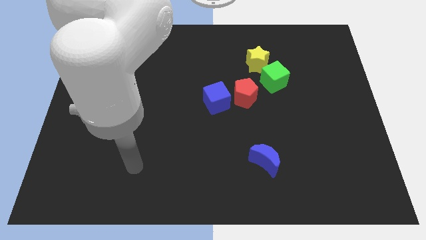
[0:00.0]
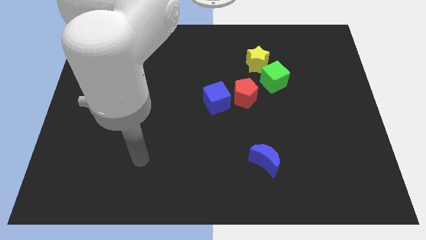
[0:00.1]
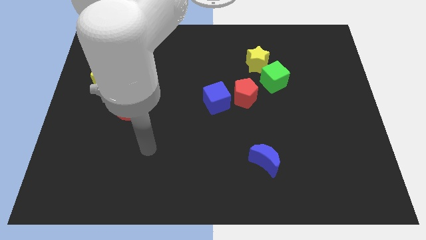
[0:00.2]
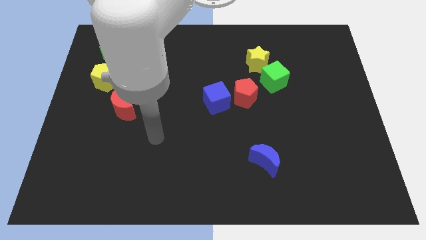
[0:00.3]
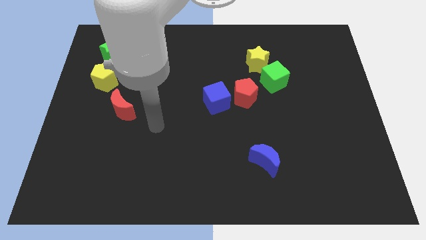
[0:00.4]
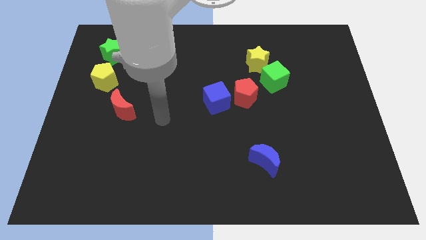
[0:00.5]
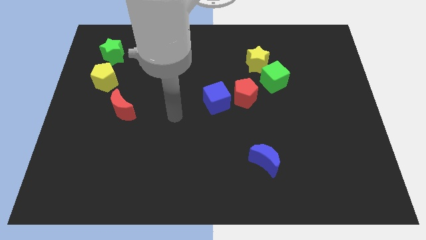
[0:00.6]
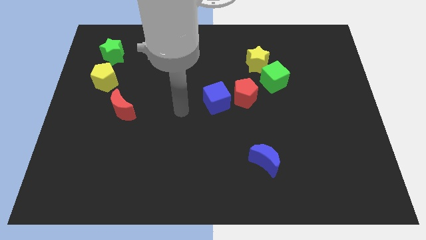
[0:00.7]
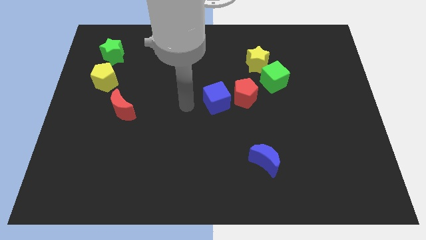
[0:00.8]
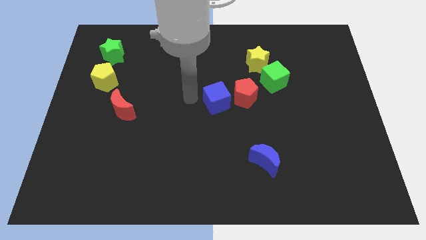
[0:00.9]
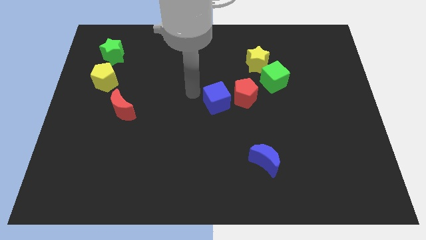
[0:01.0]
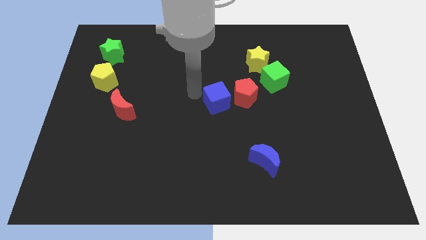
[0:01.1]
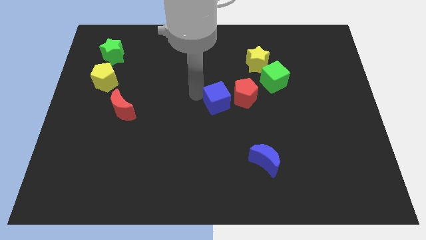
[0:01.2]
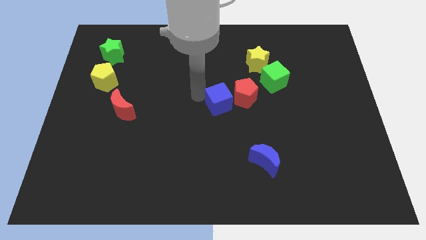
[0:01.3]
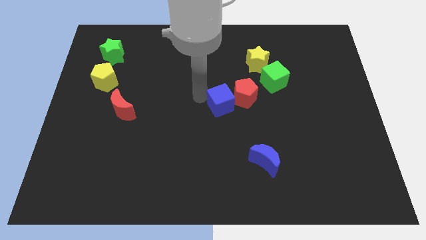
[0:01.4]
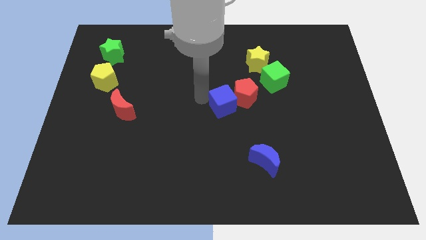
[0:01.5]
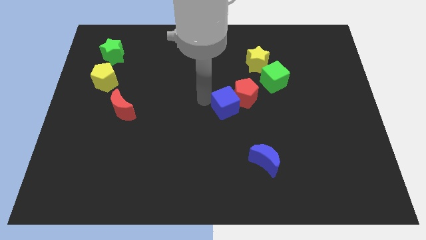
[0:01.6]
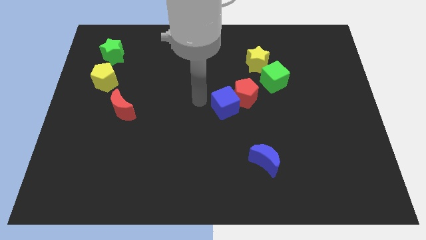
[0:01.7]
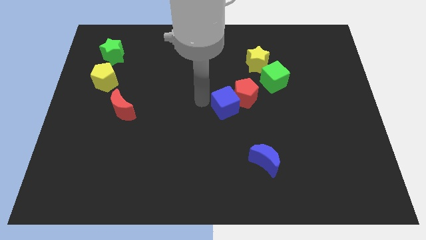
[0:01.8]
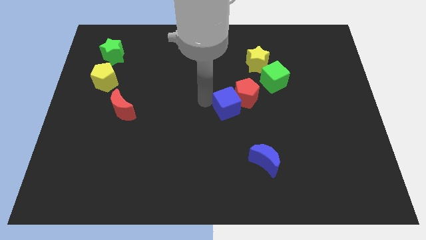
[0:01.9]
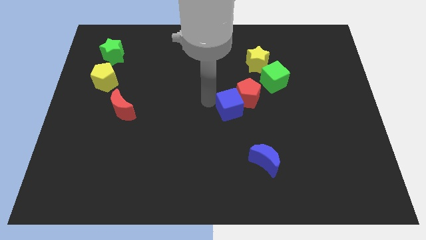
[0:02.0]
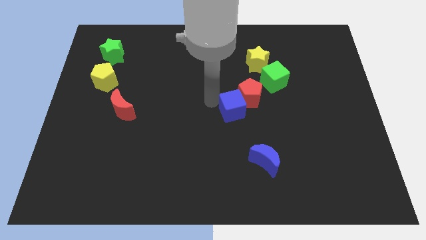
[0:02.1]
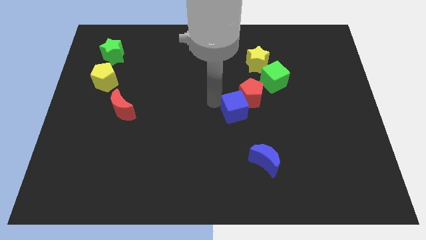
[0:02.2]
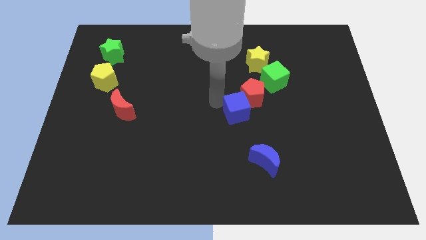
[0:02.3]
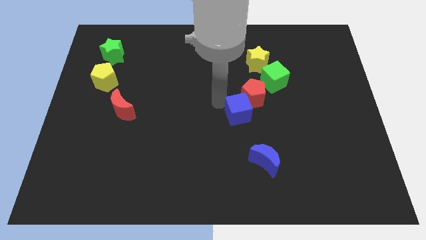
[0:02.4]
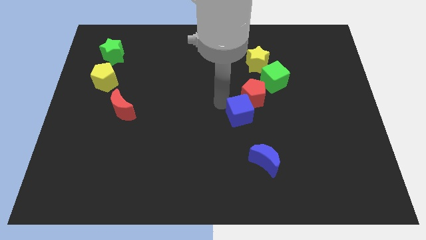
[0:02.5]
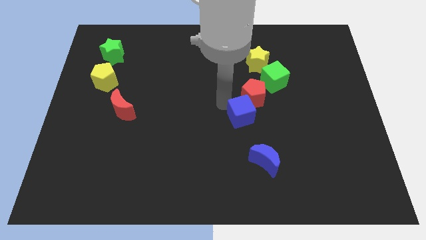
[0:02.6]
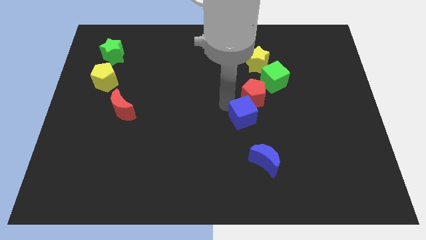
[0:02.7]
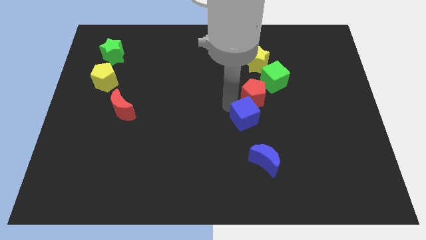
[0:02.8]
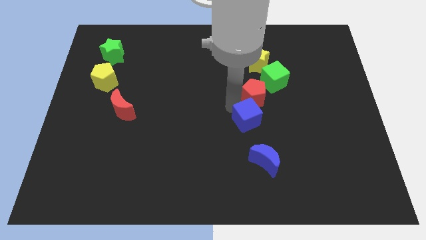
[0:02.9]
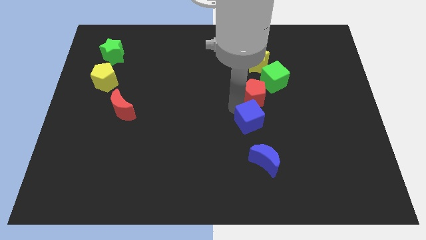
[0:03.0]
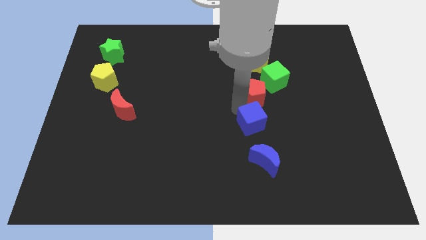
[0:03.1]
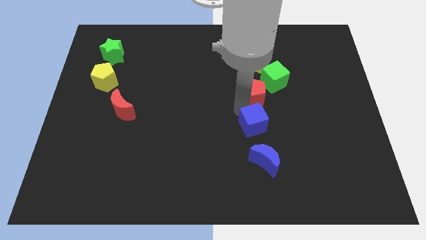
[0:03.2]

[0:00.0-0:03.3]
push the blue cube a bit to the right

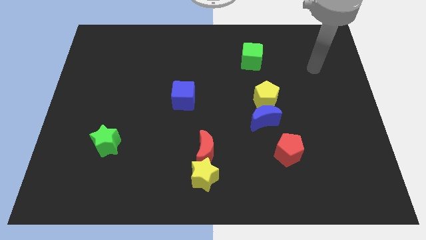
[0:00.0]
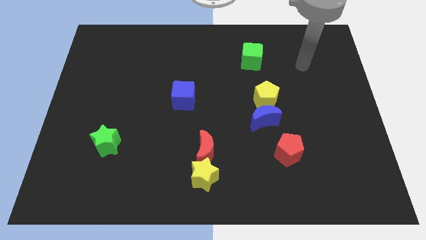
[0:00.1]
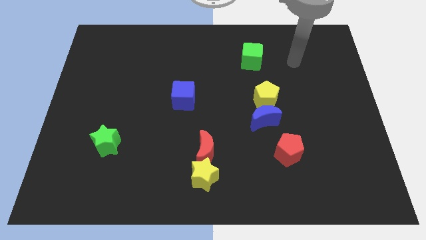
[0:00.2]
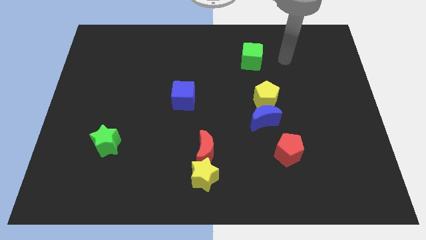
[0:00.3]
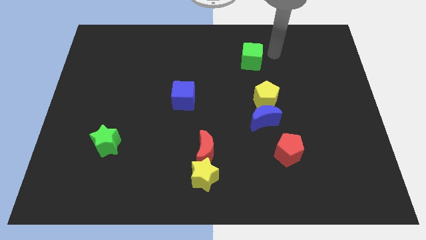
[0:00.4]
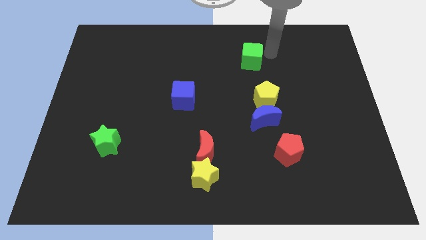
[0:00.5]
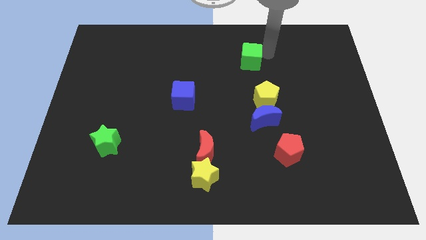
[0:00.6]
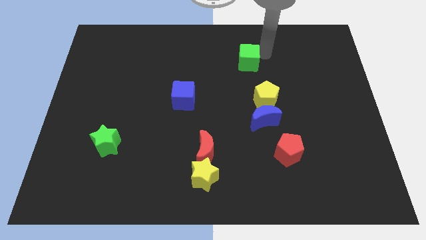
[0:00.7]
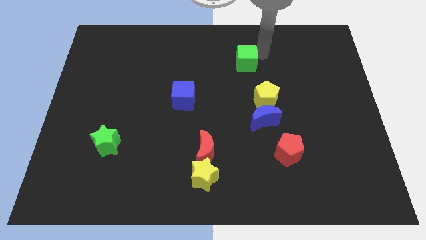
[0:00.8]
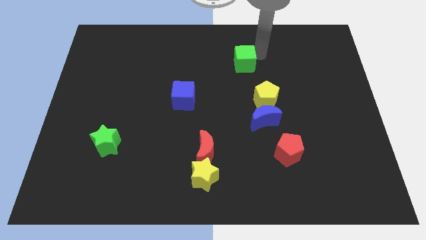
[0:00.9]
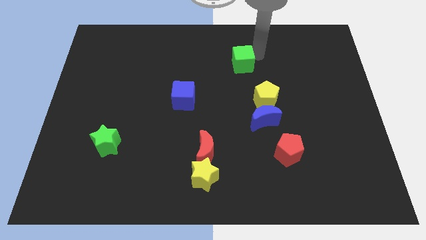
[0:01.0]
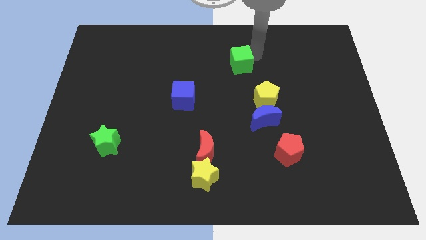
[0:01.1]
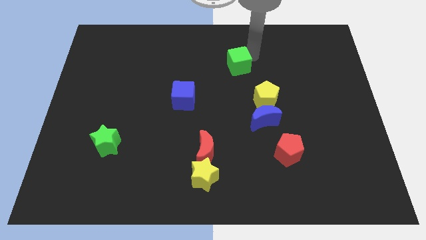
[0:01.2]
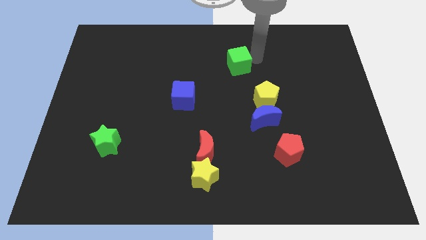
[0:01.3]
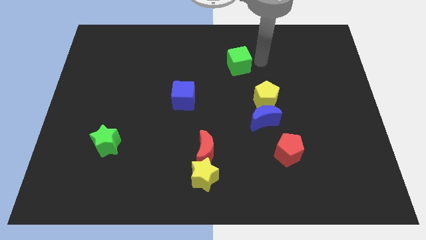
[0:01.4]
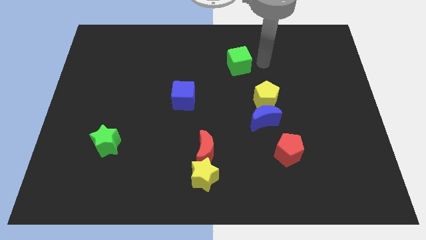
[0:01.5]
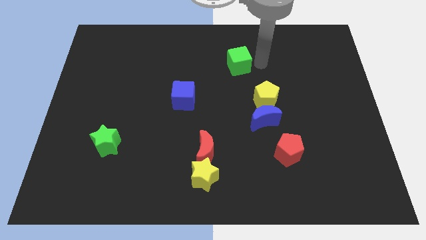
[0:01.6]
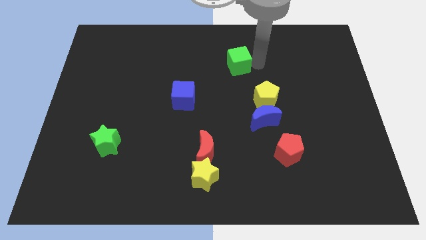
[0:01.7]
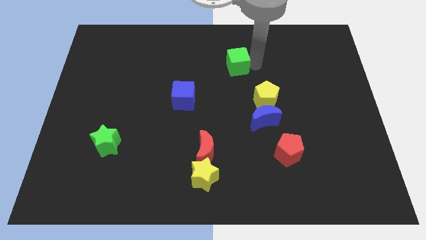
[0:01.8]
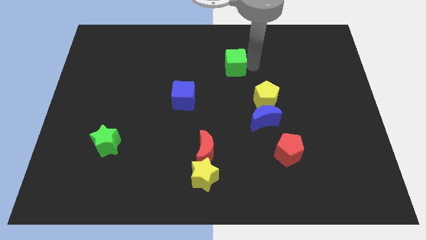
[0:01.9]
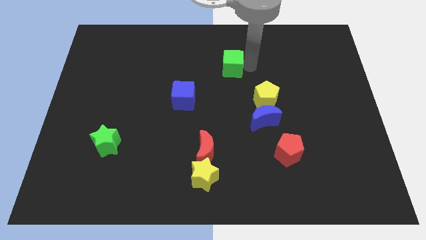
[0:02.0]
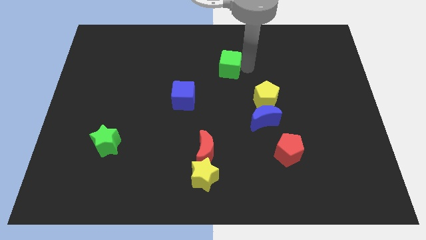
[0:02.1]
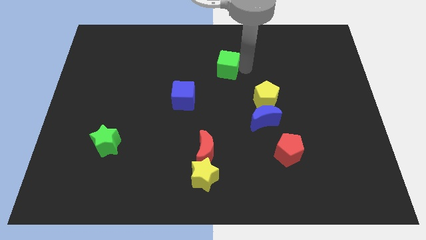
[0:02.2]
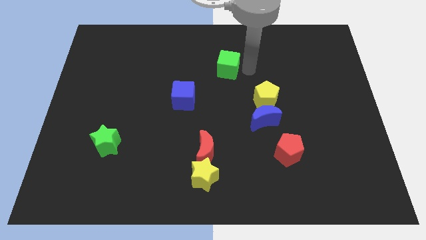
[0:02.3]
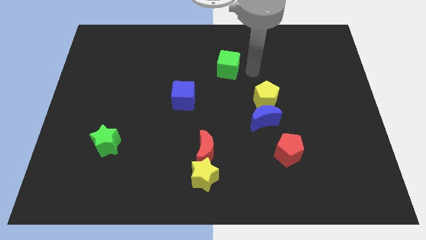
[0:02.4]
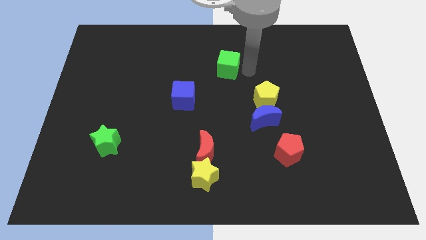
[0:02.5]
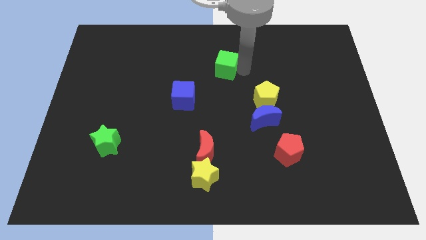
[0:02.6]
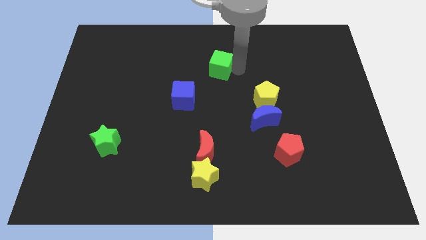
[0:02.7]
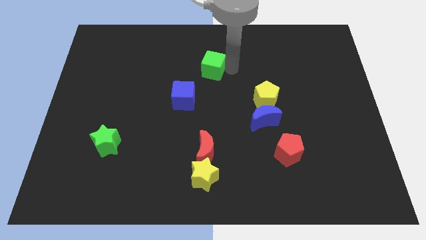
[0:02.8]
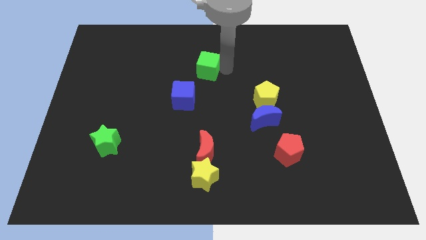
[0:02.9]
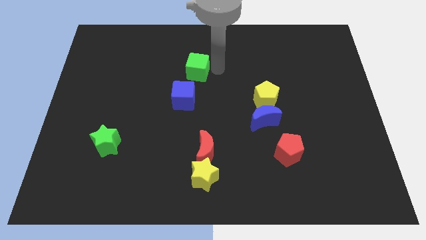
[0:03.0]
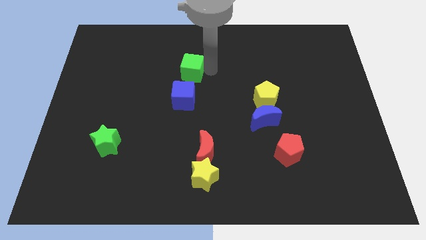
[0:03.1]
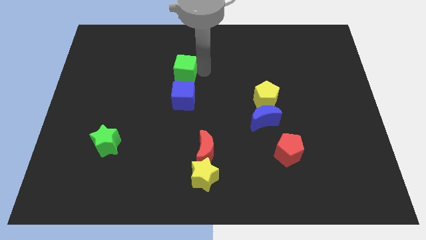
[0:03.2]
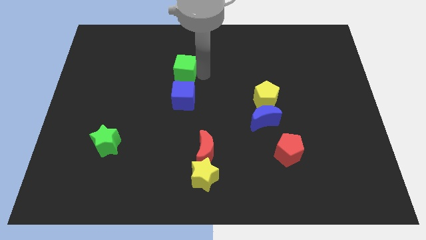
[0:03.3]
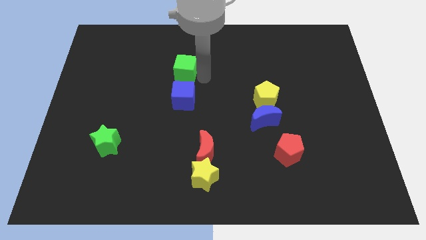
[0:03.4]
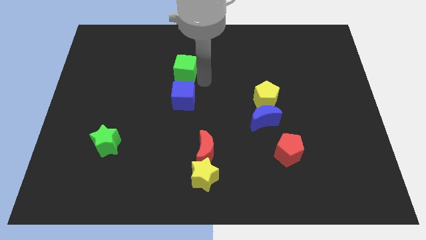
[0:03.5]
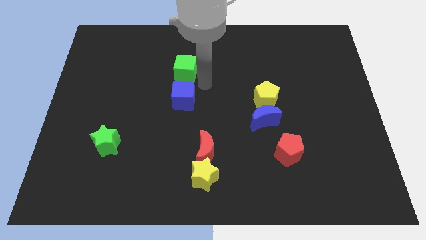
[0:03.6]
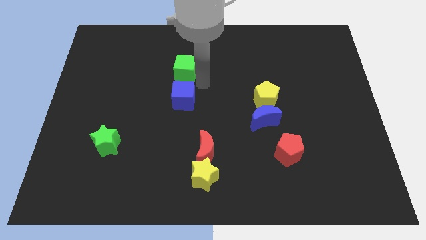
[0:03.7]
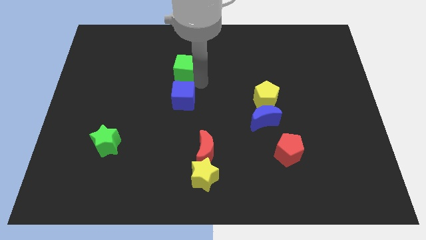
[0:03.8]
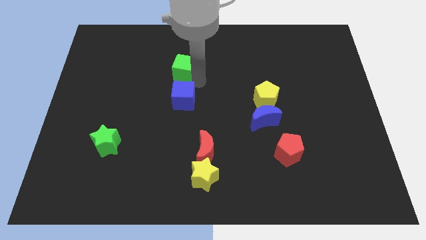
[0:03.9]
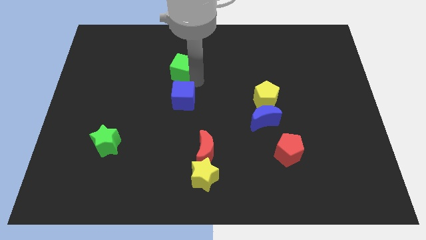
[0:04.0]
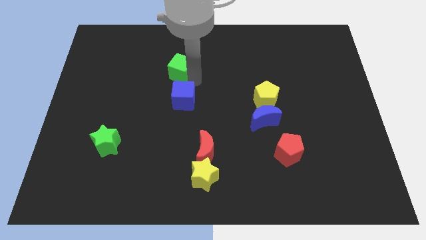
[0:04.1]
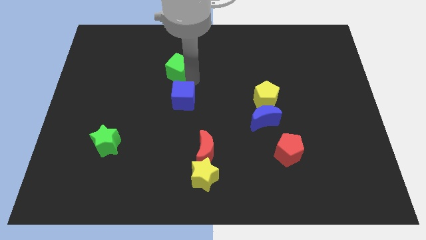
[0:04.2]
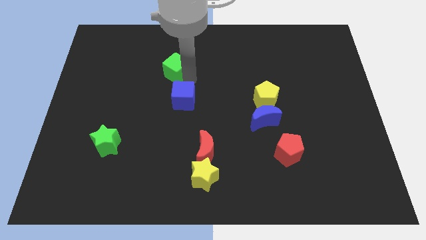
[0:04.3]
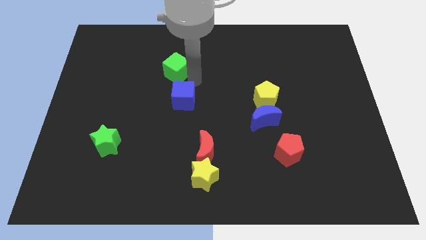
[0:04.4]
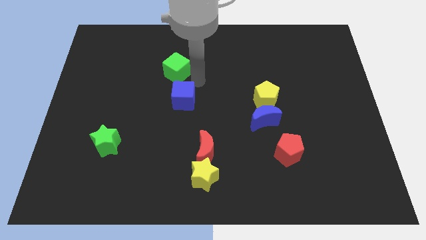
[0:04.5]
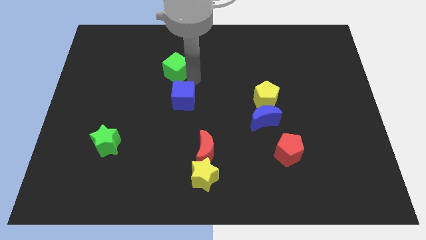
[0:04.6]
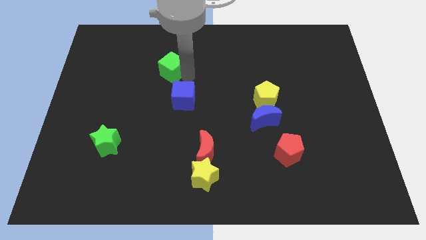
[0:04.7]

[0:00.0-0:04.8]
push the green cube left
